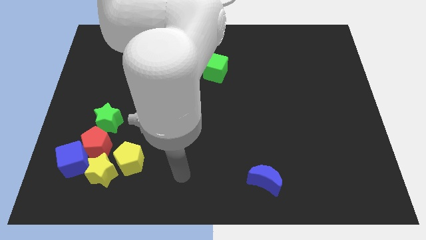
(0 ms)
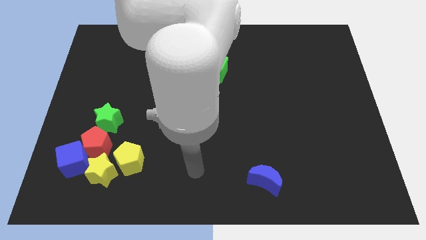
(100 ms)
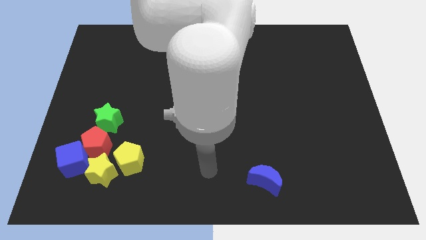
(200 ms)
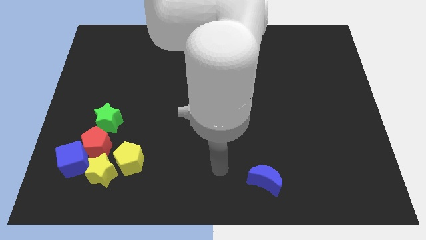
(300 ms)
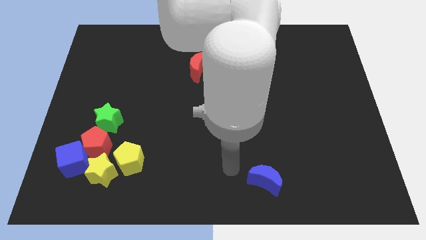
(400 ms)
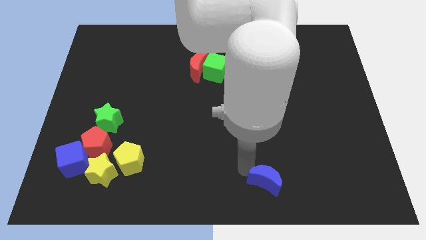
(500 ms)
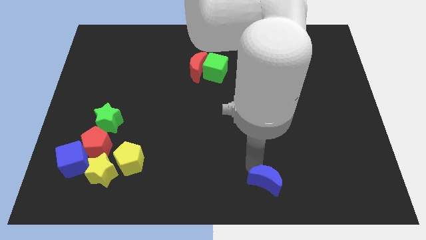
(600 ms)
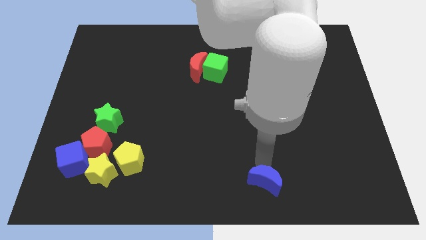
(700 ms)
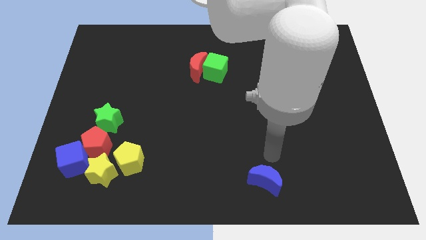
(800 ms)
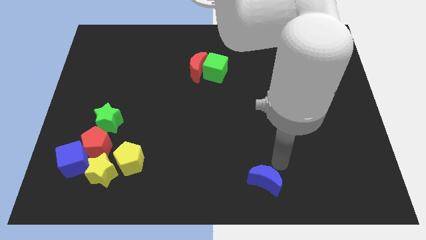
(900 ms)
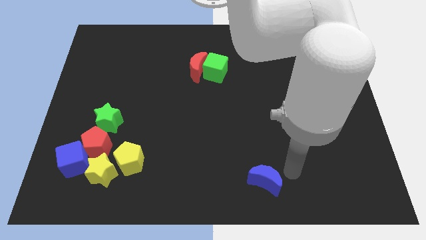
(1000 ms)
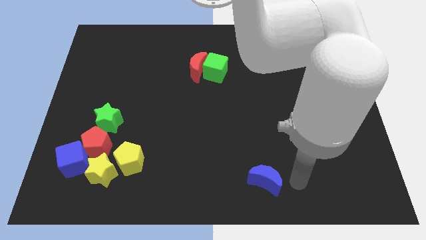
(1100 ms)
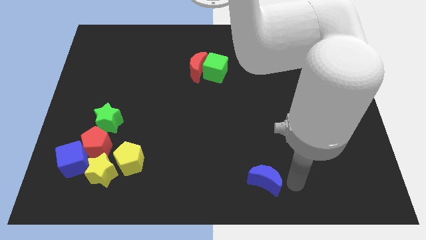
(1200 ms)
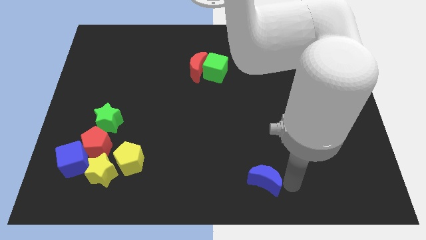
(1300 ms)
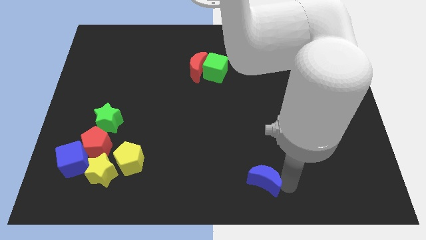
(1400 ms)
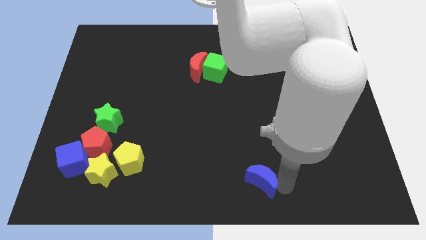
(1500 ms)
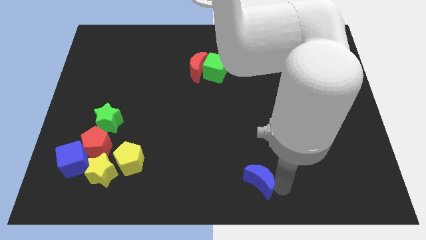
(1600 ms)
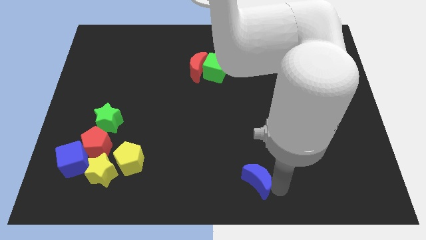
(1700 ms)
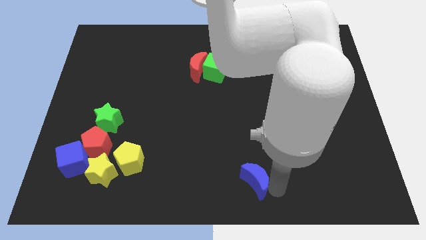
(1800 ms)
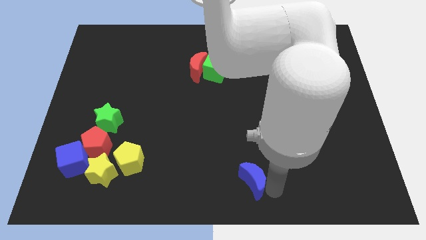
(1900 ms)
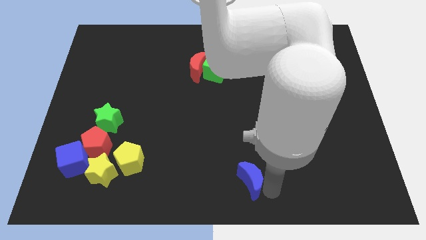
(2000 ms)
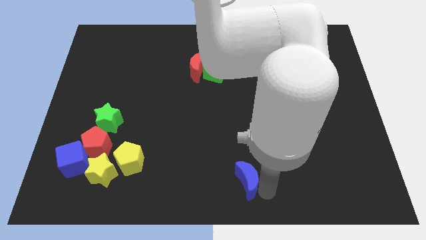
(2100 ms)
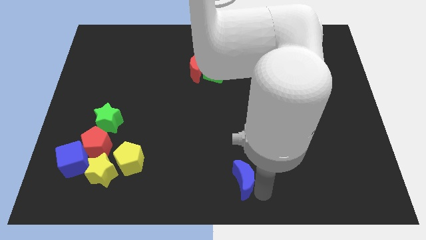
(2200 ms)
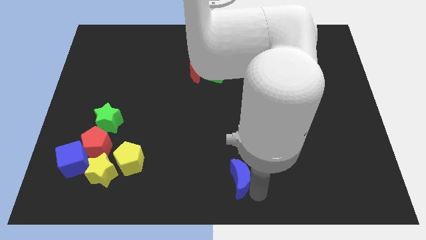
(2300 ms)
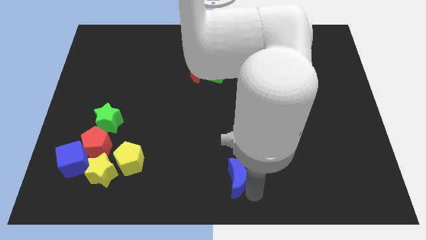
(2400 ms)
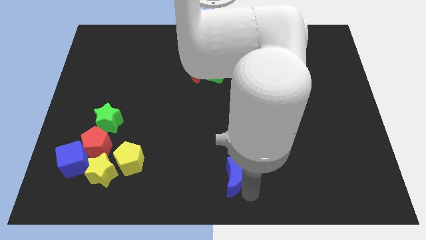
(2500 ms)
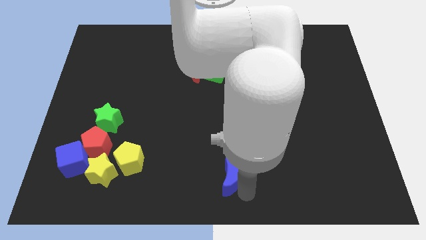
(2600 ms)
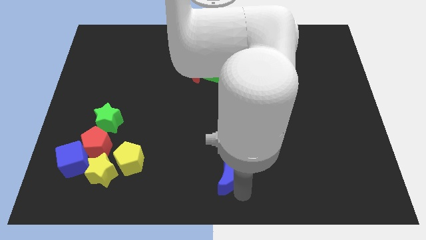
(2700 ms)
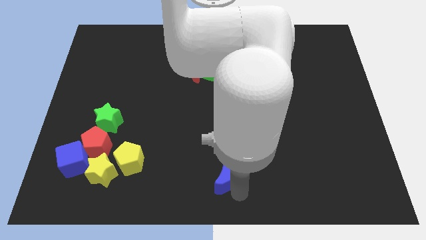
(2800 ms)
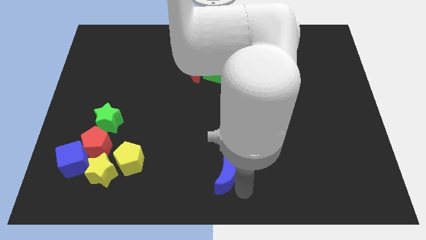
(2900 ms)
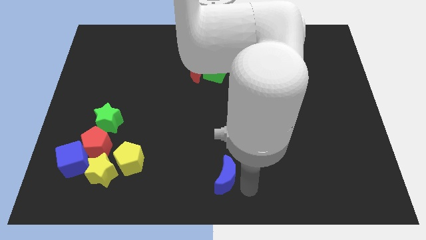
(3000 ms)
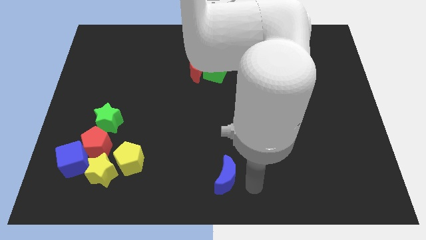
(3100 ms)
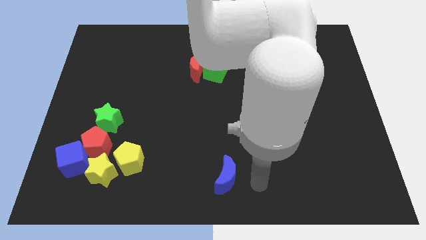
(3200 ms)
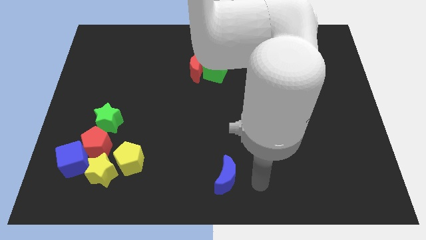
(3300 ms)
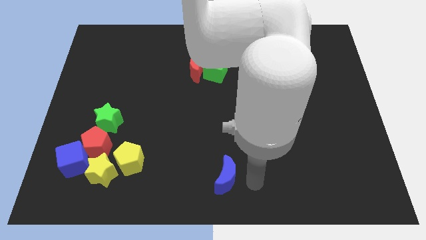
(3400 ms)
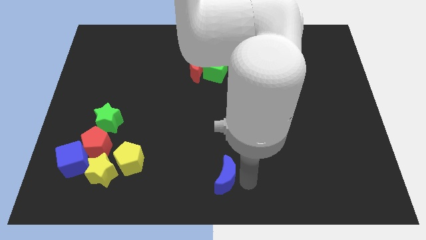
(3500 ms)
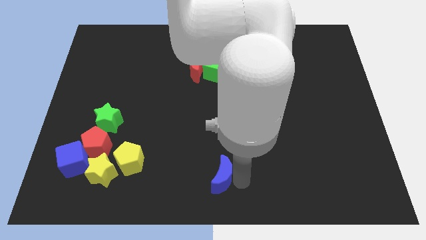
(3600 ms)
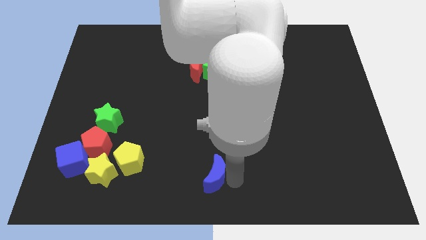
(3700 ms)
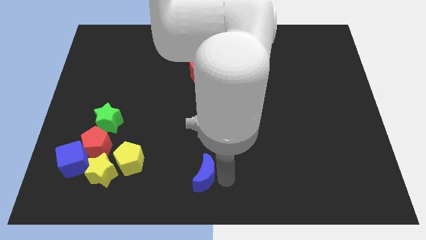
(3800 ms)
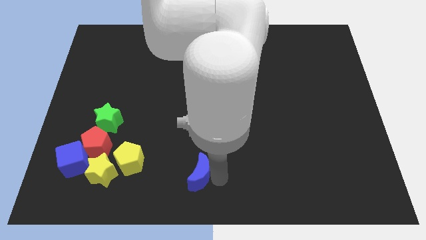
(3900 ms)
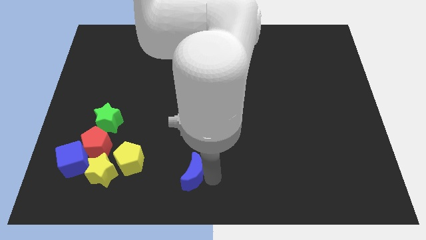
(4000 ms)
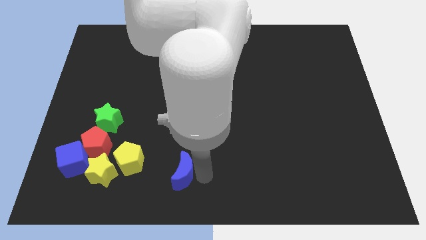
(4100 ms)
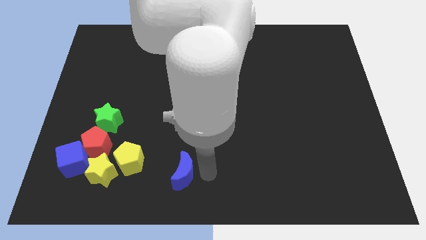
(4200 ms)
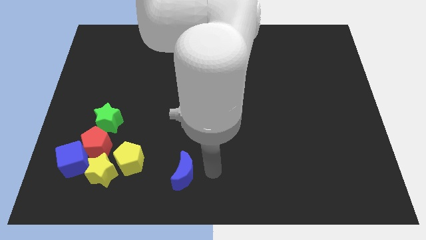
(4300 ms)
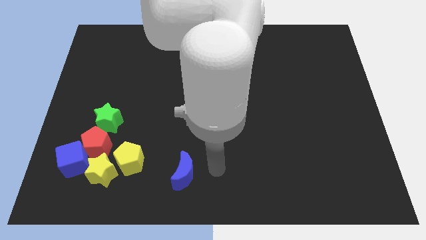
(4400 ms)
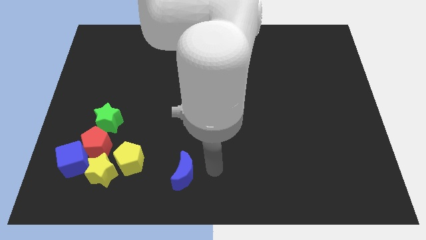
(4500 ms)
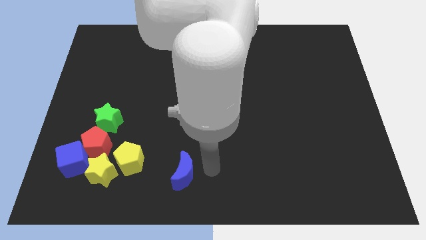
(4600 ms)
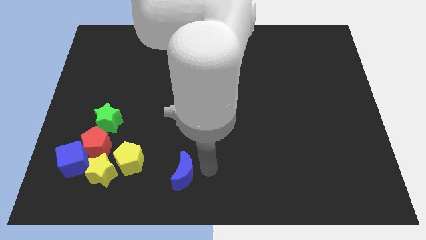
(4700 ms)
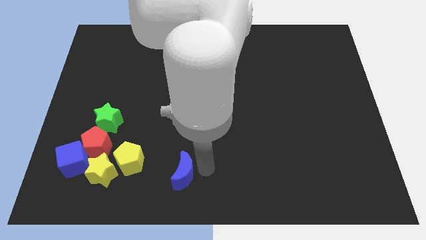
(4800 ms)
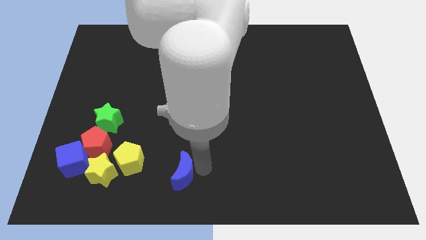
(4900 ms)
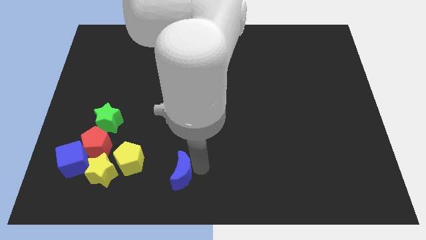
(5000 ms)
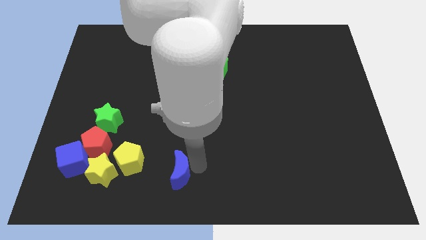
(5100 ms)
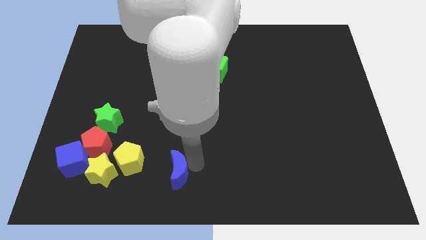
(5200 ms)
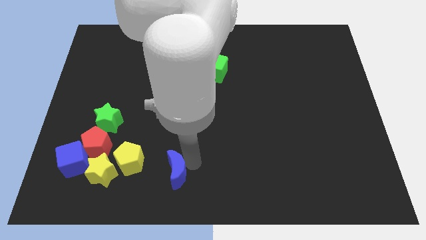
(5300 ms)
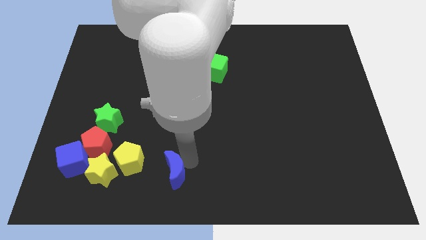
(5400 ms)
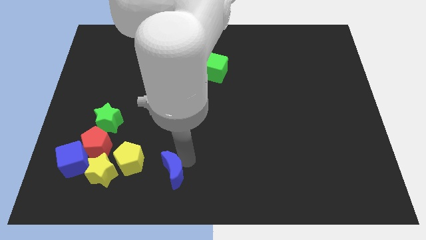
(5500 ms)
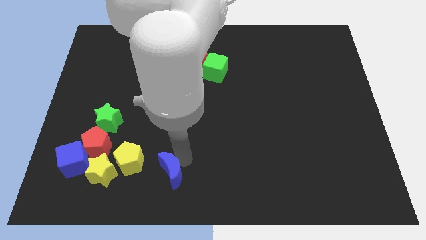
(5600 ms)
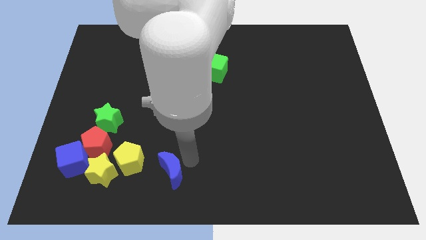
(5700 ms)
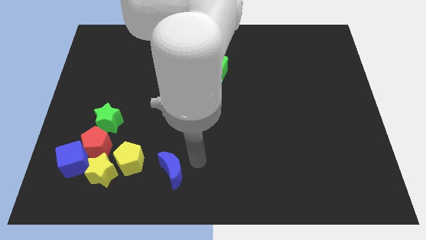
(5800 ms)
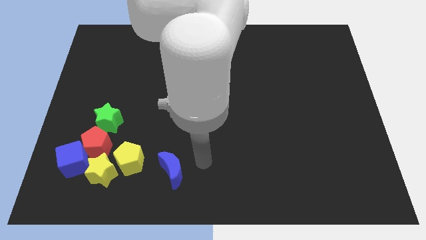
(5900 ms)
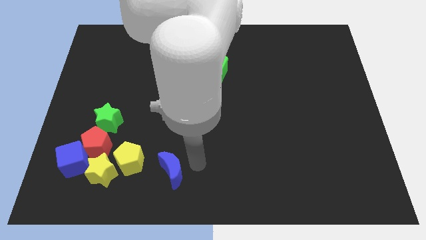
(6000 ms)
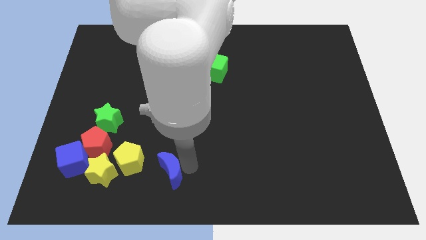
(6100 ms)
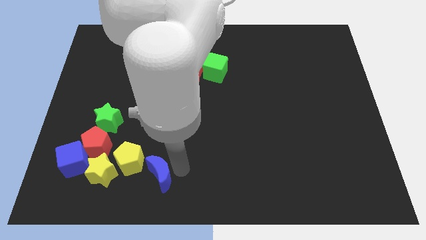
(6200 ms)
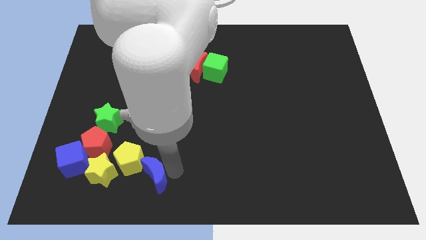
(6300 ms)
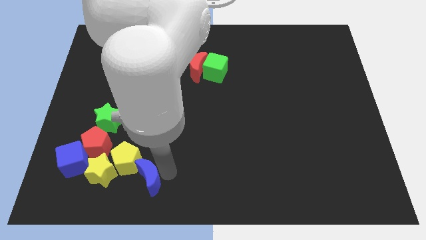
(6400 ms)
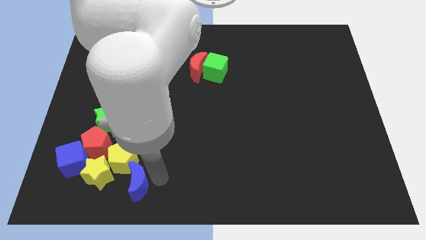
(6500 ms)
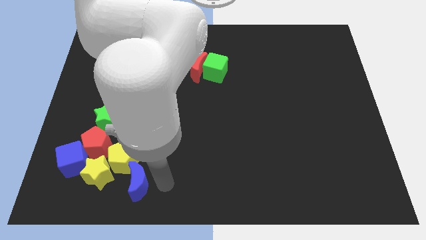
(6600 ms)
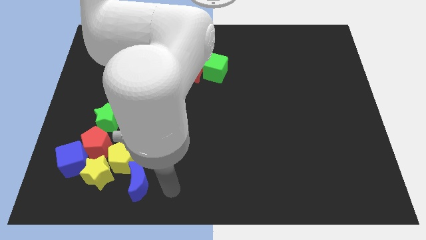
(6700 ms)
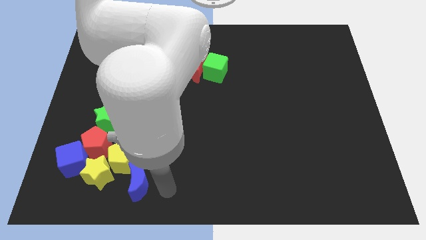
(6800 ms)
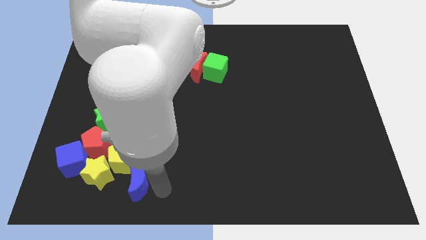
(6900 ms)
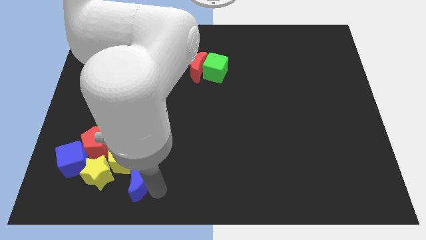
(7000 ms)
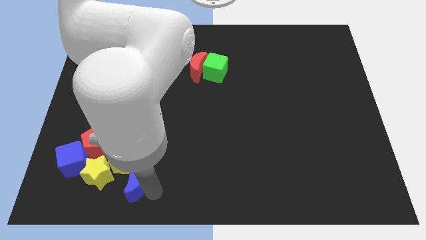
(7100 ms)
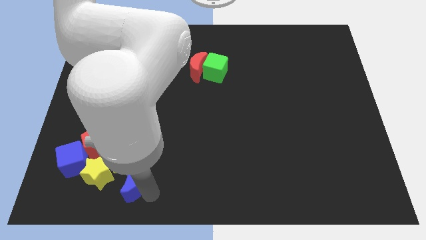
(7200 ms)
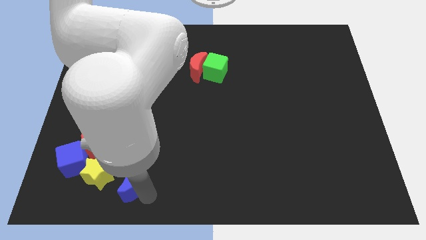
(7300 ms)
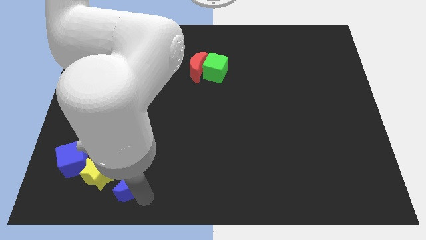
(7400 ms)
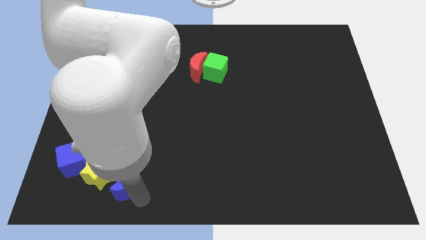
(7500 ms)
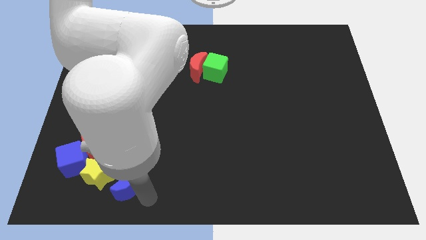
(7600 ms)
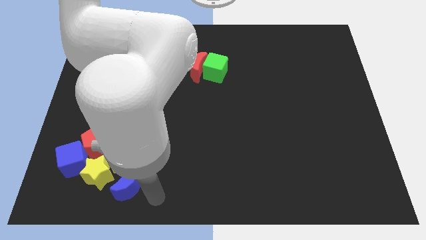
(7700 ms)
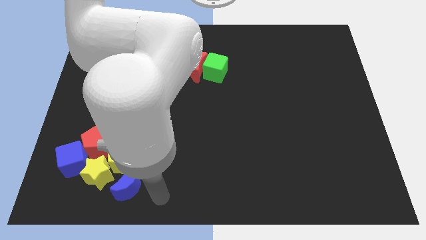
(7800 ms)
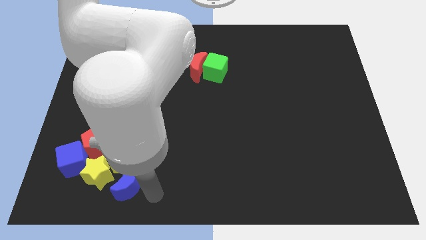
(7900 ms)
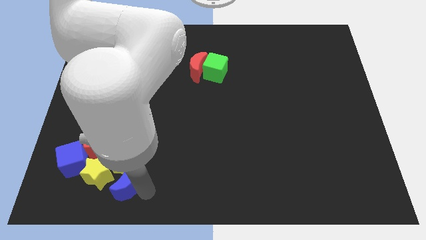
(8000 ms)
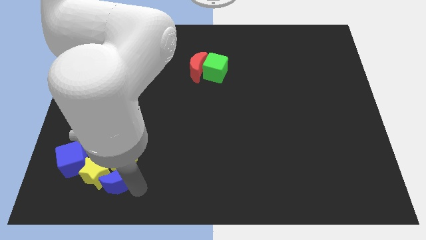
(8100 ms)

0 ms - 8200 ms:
move the blue moon next to the yellow star
